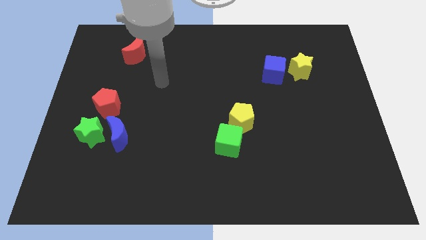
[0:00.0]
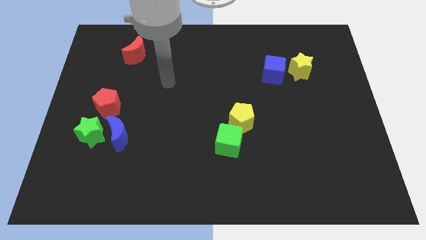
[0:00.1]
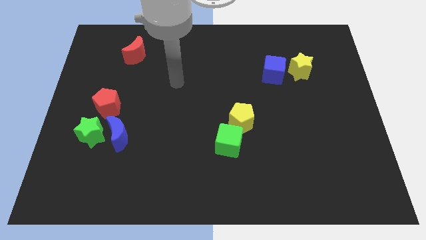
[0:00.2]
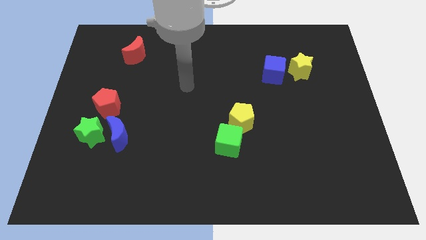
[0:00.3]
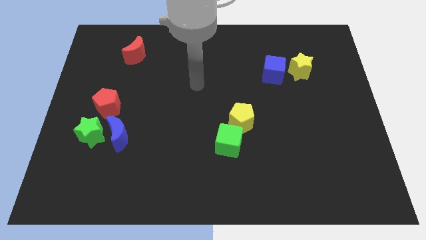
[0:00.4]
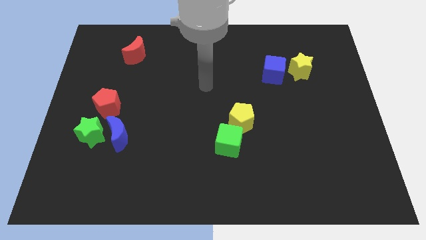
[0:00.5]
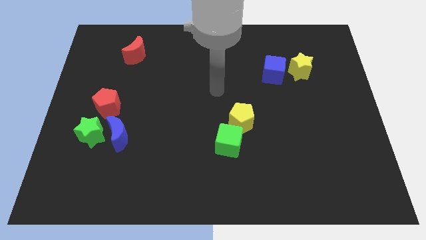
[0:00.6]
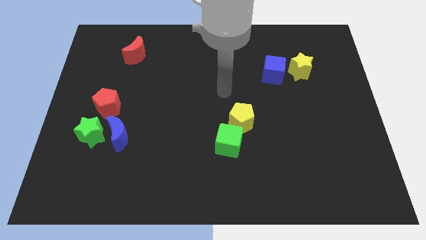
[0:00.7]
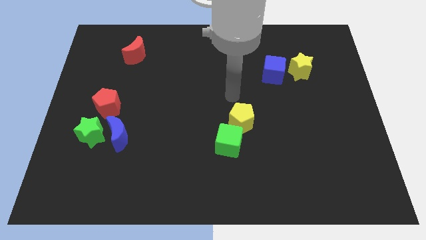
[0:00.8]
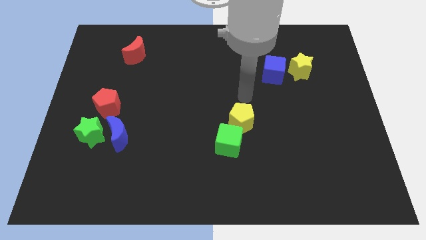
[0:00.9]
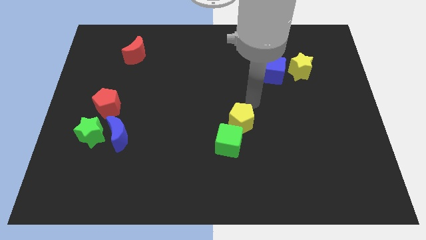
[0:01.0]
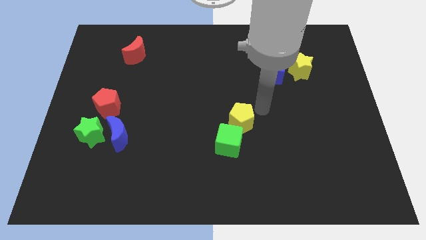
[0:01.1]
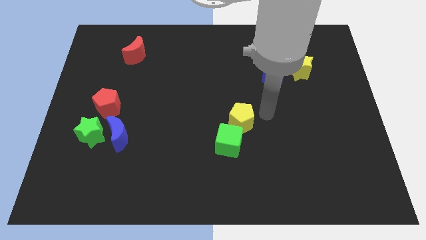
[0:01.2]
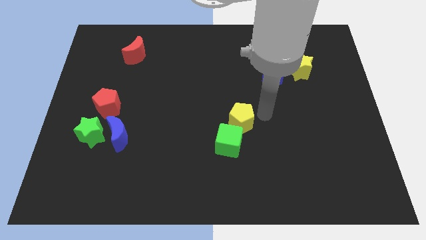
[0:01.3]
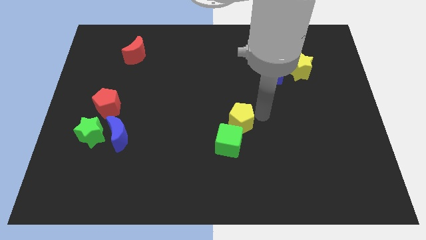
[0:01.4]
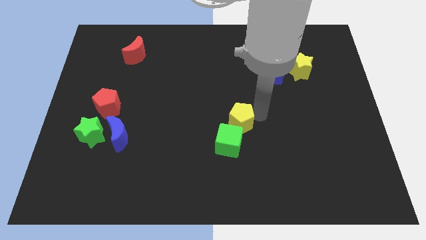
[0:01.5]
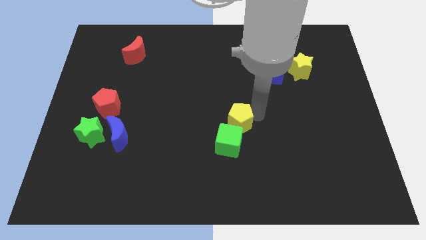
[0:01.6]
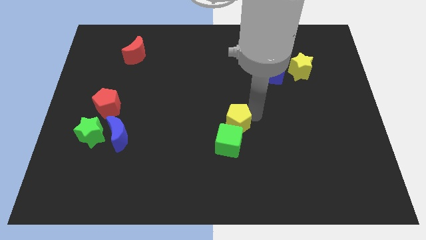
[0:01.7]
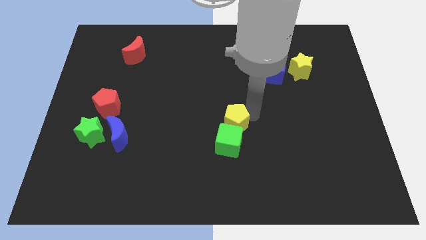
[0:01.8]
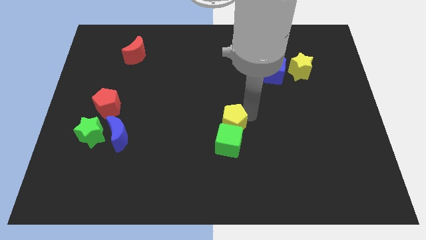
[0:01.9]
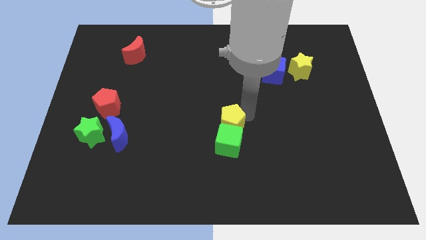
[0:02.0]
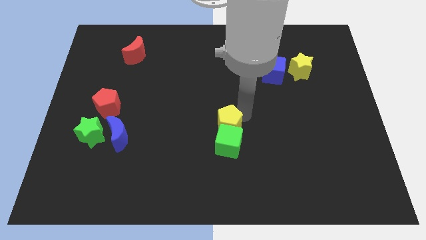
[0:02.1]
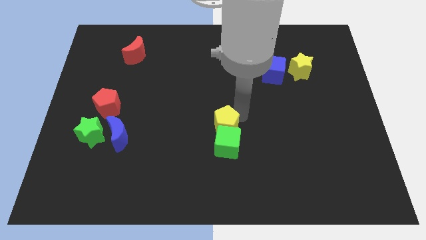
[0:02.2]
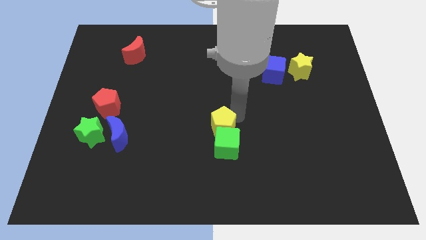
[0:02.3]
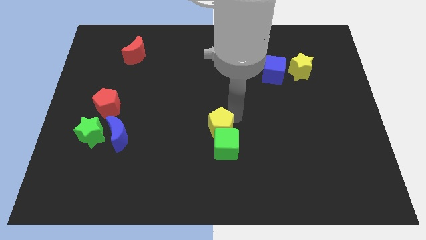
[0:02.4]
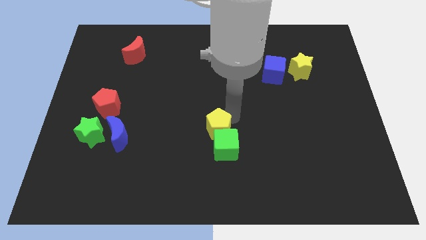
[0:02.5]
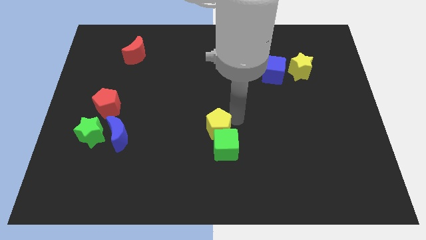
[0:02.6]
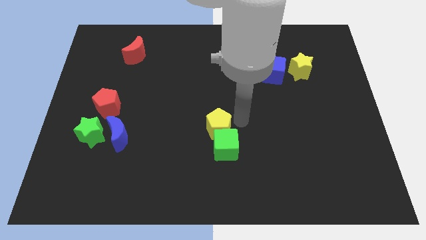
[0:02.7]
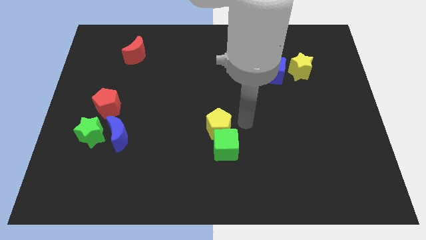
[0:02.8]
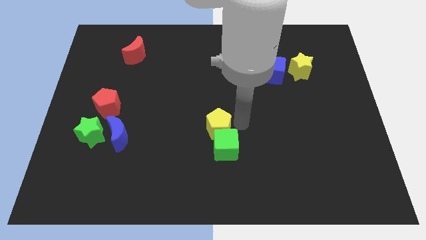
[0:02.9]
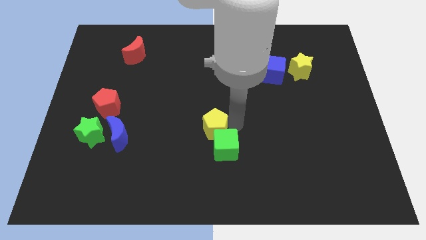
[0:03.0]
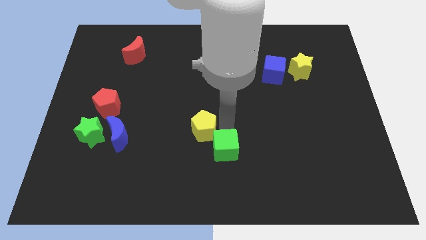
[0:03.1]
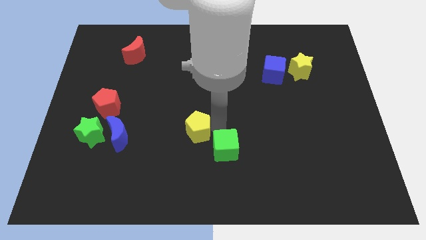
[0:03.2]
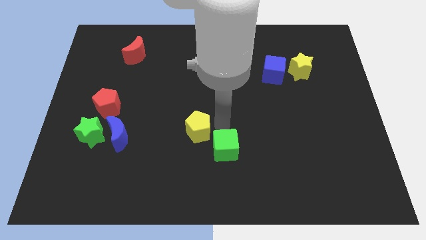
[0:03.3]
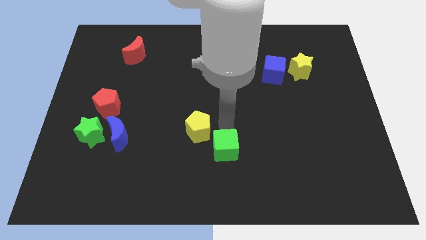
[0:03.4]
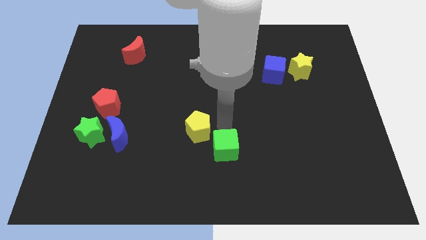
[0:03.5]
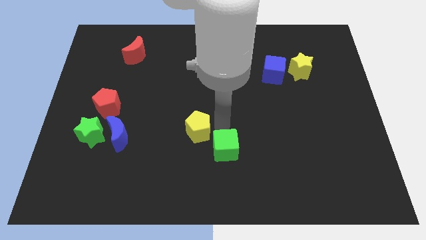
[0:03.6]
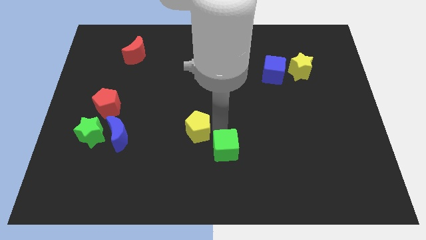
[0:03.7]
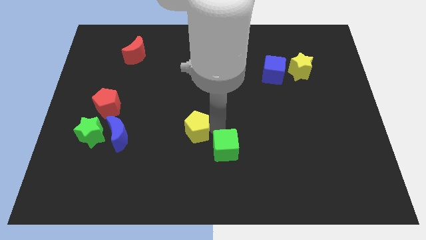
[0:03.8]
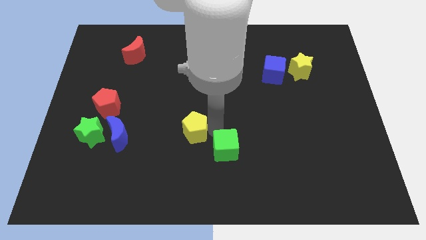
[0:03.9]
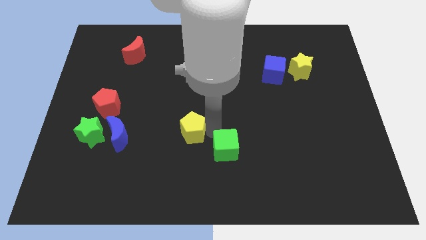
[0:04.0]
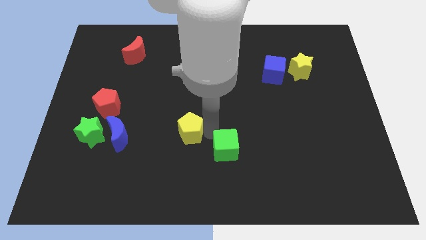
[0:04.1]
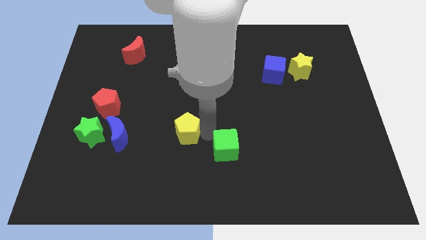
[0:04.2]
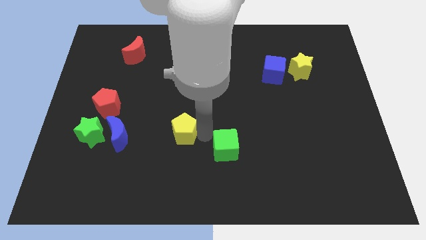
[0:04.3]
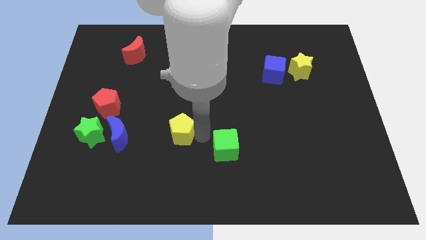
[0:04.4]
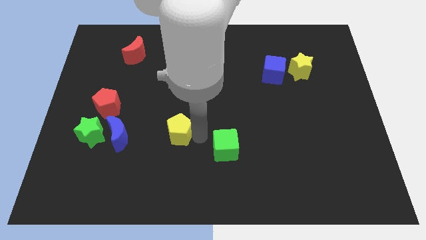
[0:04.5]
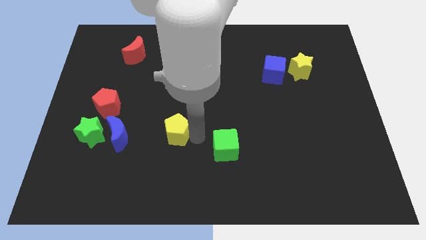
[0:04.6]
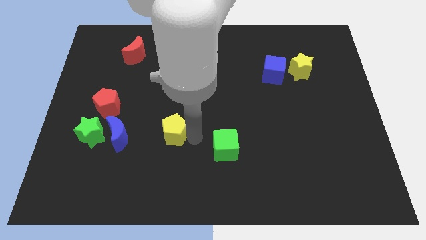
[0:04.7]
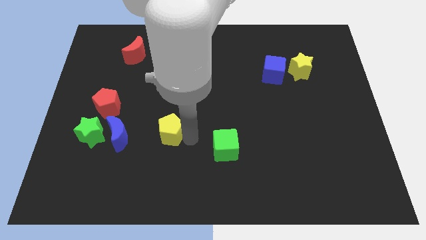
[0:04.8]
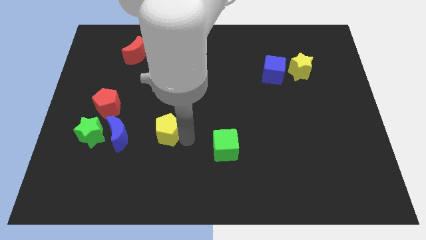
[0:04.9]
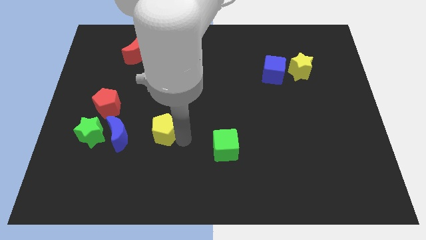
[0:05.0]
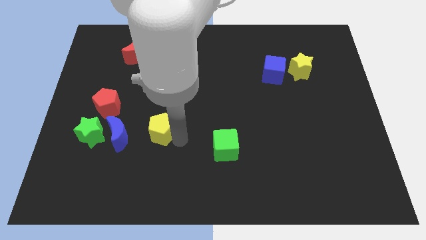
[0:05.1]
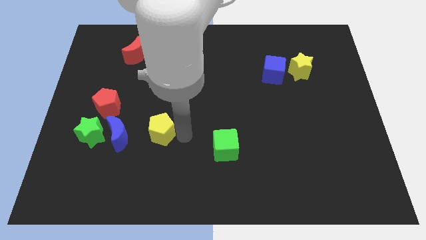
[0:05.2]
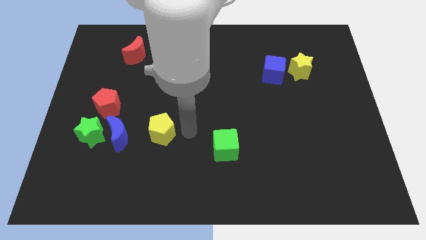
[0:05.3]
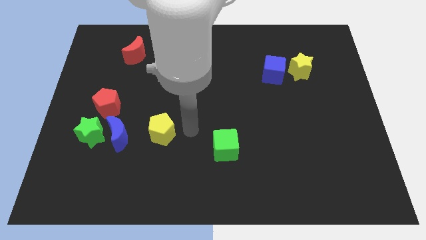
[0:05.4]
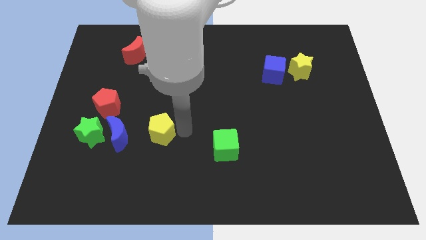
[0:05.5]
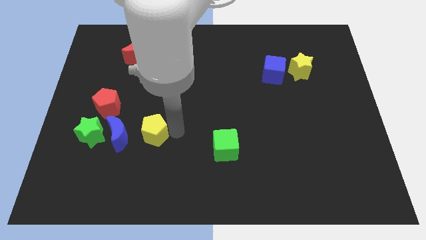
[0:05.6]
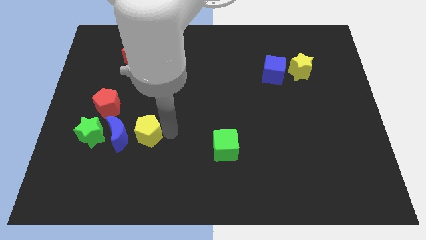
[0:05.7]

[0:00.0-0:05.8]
move the yellow pentagon to the bottom right side of the red pentagon

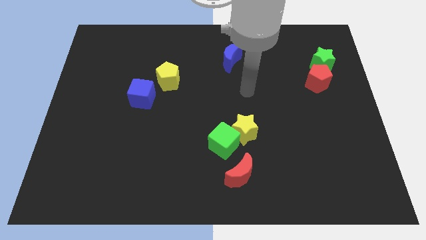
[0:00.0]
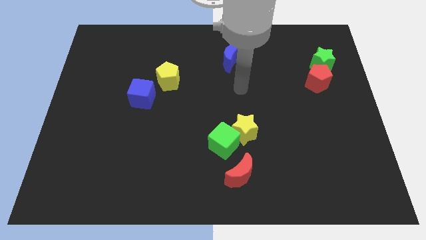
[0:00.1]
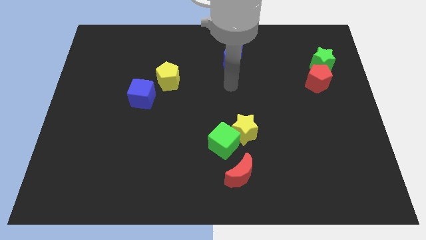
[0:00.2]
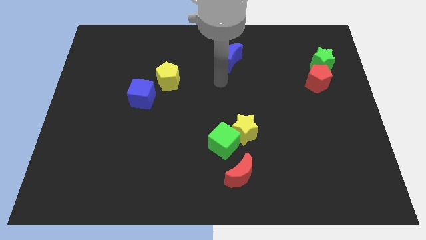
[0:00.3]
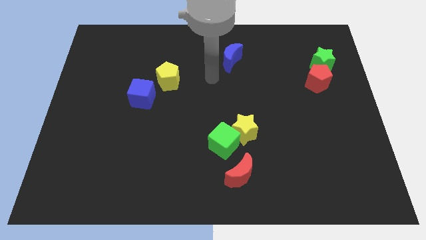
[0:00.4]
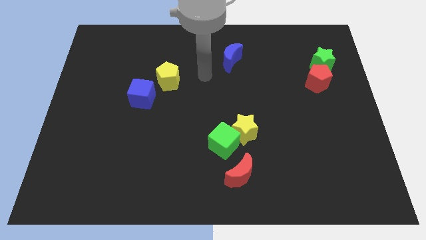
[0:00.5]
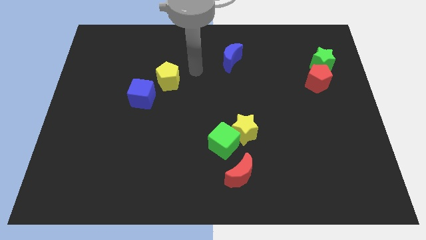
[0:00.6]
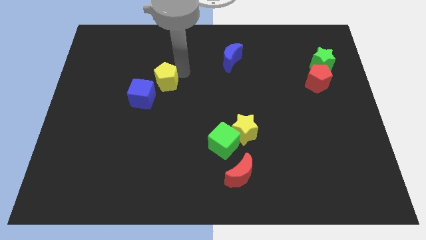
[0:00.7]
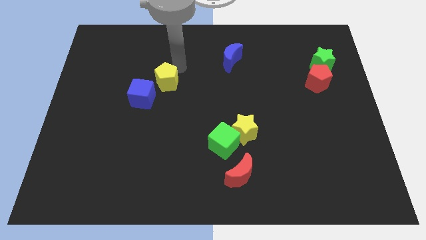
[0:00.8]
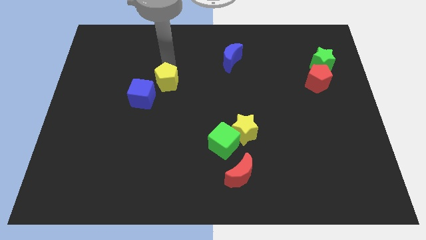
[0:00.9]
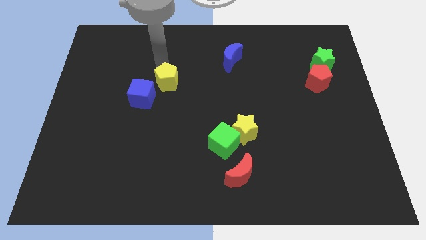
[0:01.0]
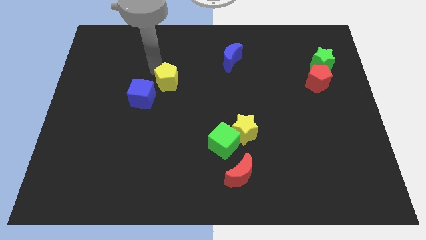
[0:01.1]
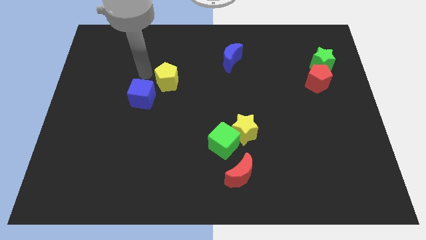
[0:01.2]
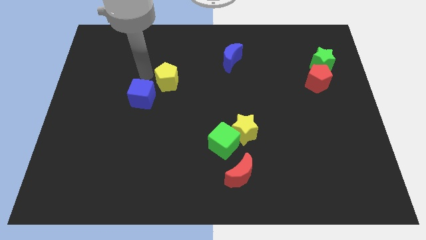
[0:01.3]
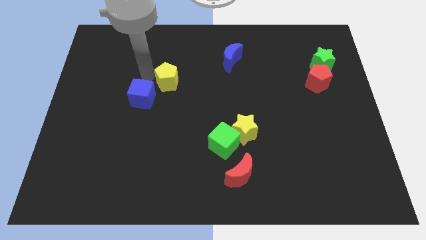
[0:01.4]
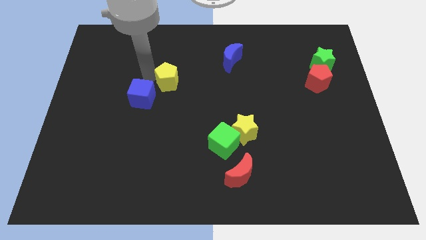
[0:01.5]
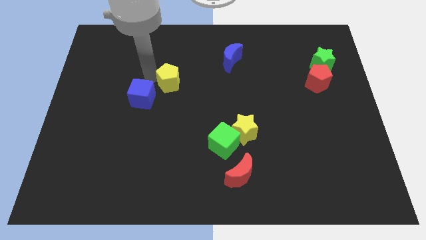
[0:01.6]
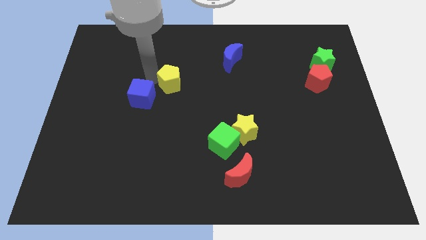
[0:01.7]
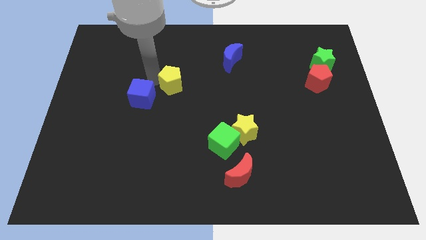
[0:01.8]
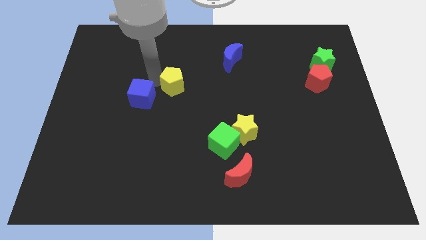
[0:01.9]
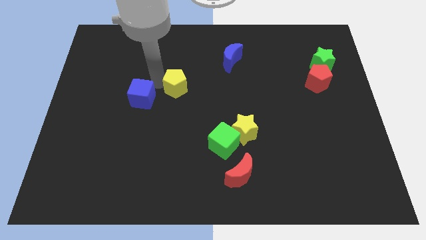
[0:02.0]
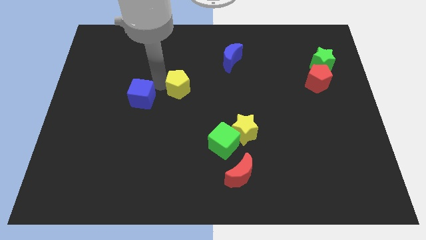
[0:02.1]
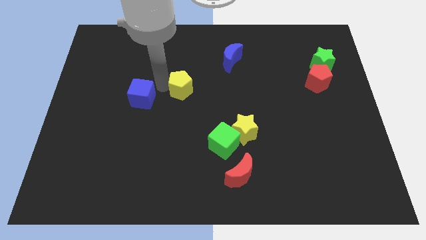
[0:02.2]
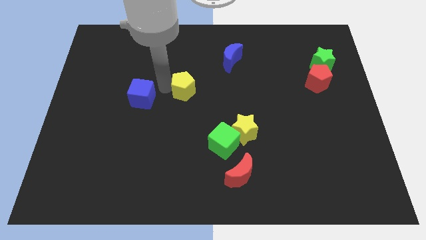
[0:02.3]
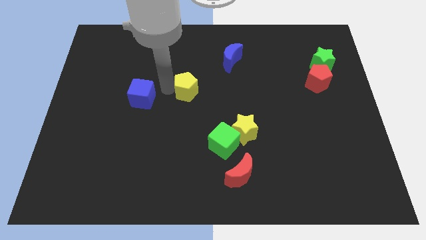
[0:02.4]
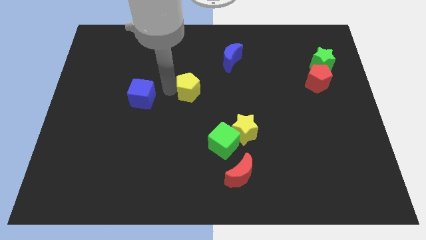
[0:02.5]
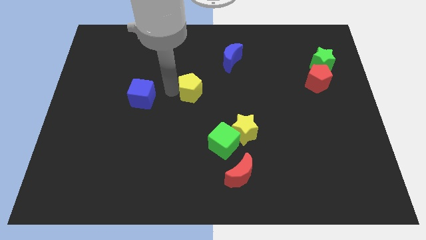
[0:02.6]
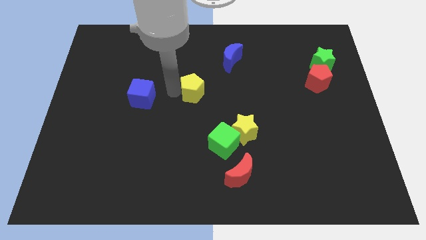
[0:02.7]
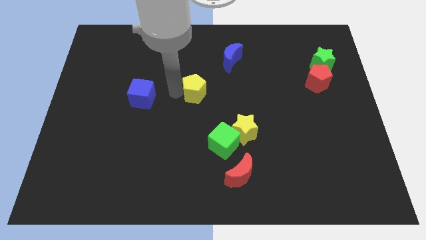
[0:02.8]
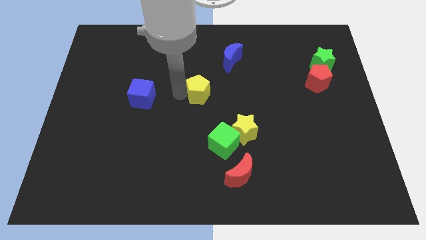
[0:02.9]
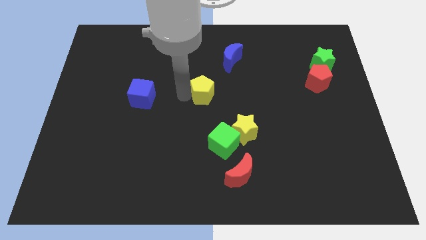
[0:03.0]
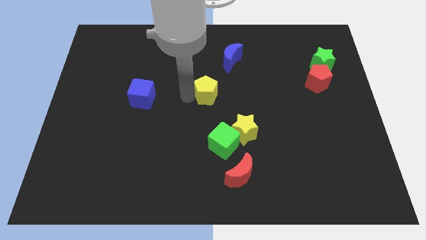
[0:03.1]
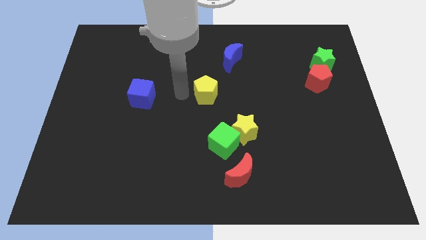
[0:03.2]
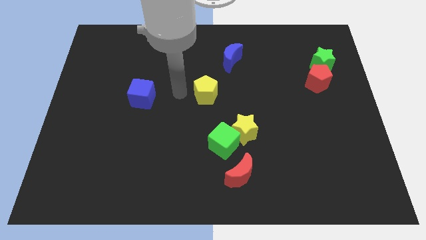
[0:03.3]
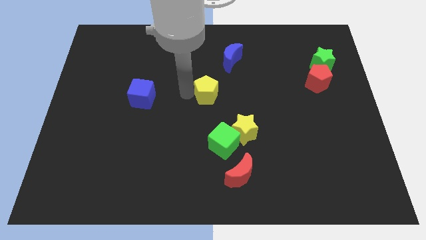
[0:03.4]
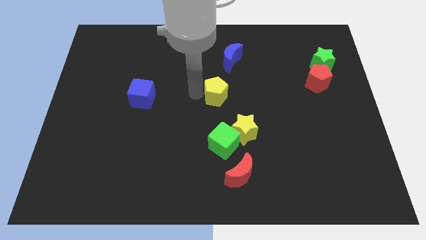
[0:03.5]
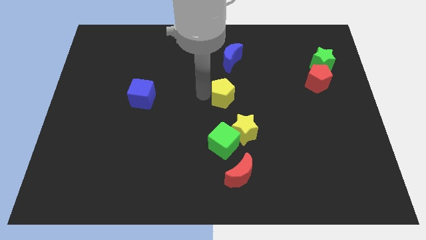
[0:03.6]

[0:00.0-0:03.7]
move the yellow pentagon to the top of the yellow star
